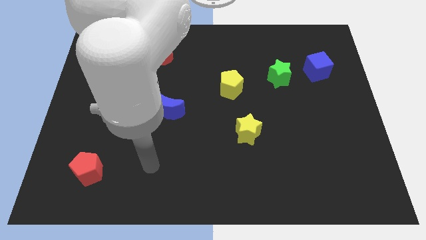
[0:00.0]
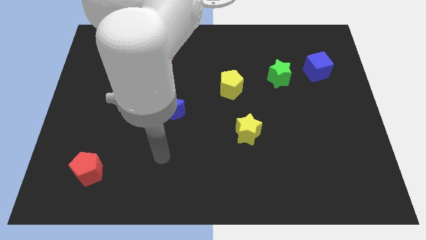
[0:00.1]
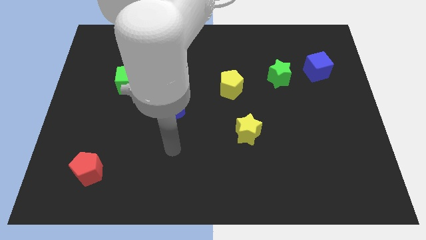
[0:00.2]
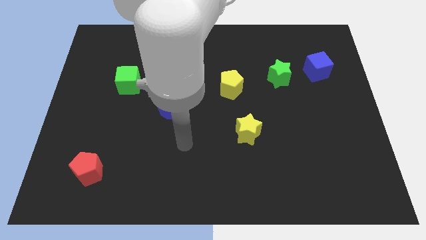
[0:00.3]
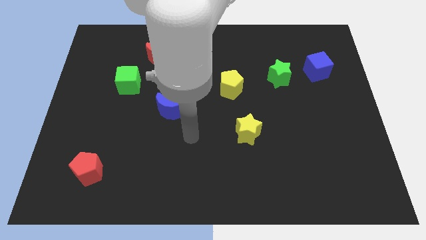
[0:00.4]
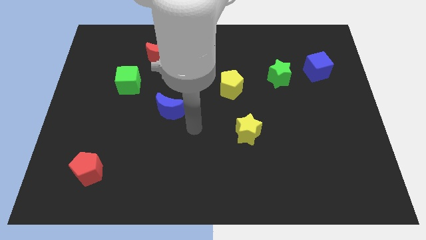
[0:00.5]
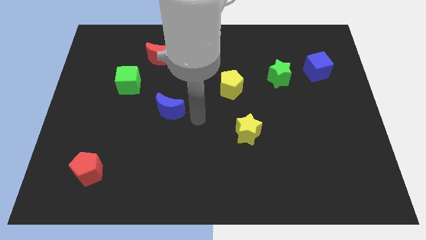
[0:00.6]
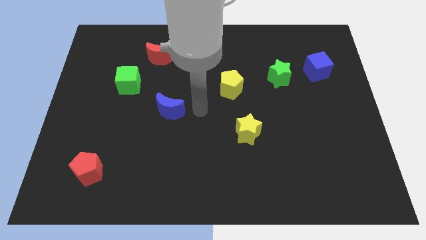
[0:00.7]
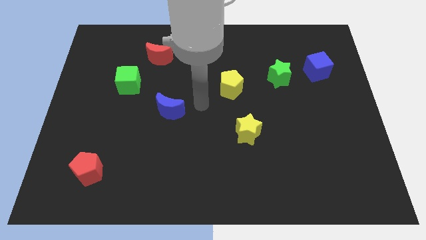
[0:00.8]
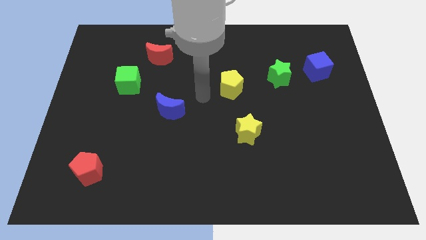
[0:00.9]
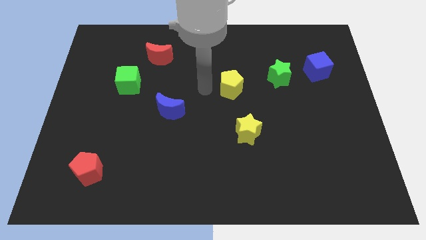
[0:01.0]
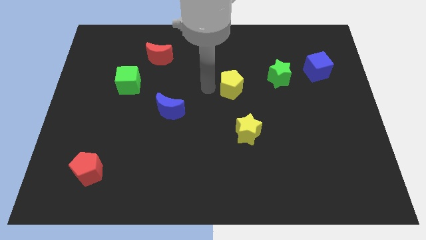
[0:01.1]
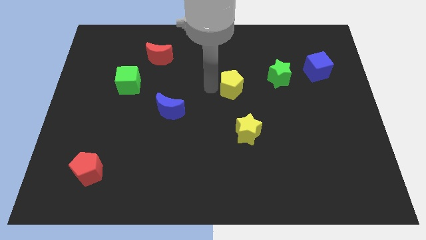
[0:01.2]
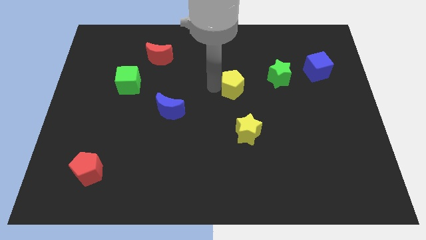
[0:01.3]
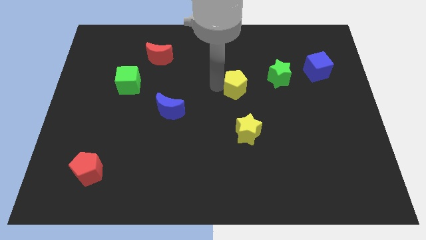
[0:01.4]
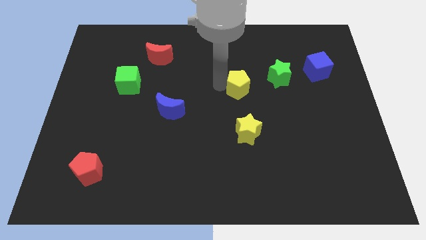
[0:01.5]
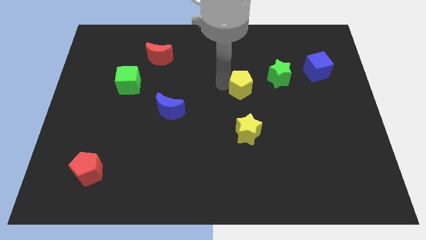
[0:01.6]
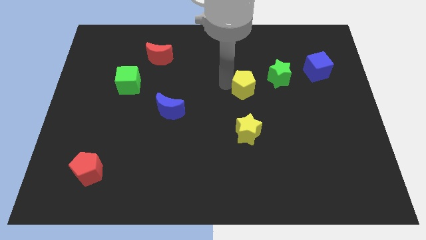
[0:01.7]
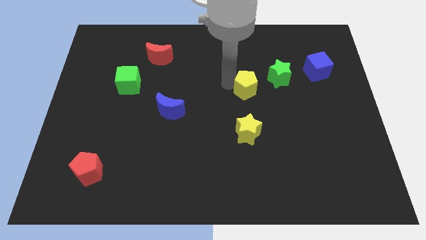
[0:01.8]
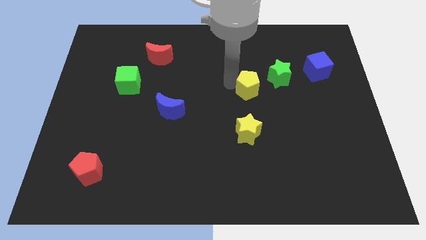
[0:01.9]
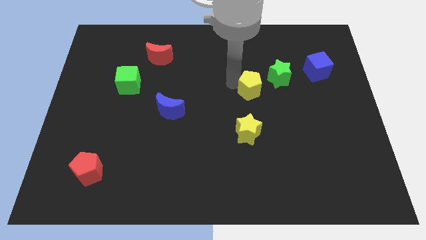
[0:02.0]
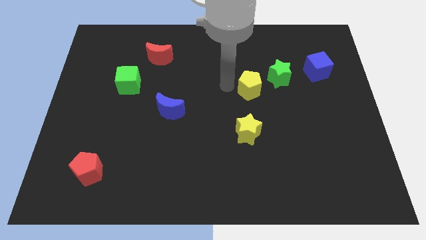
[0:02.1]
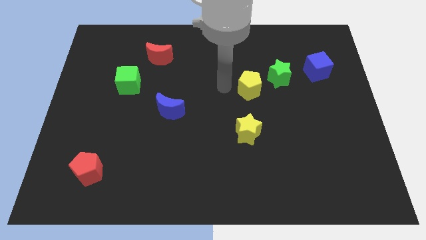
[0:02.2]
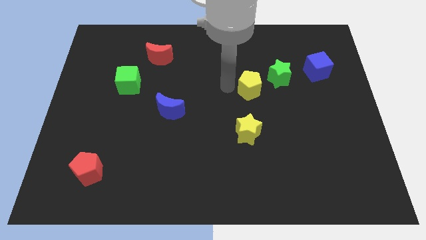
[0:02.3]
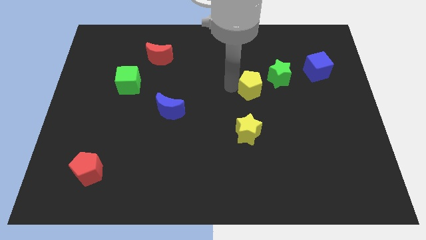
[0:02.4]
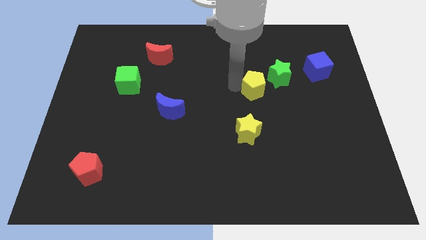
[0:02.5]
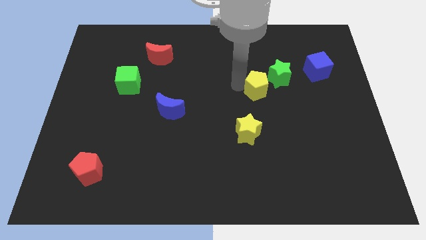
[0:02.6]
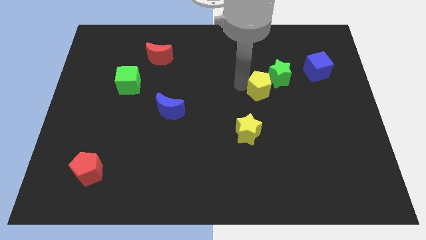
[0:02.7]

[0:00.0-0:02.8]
move the yellow pentagon to the right a little

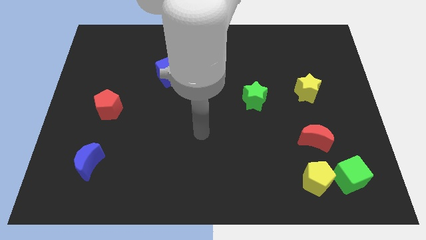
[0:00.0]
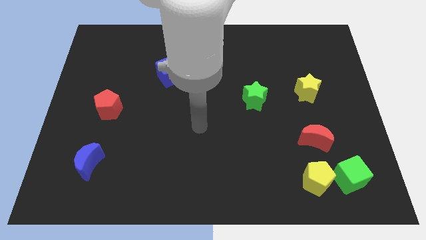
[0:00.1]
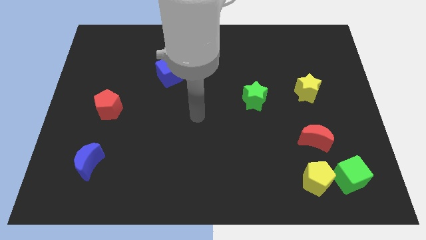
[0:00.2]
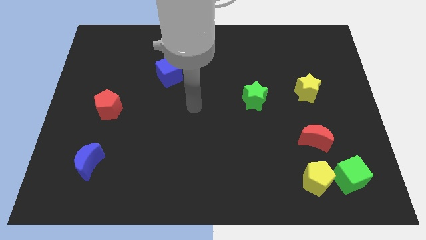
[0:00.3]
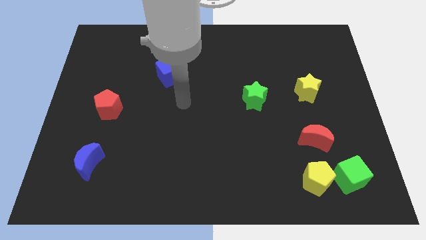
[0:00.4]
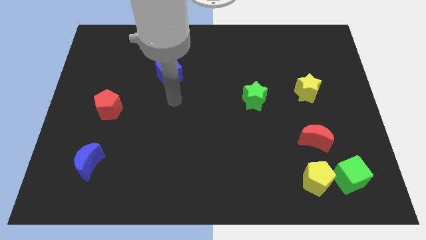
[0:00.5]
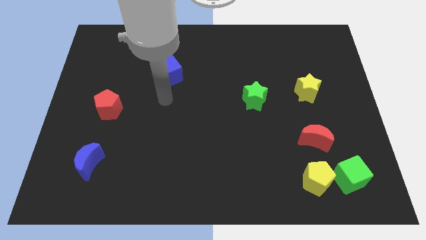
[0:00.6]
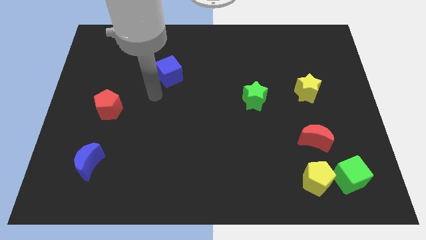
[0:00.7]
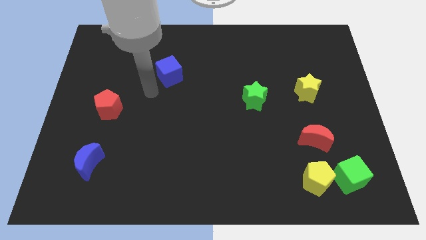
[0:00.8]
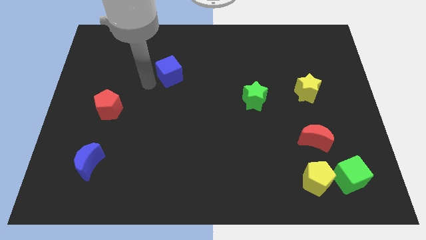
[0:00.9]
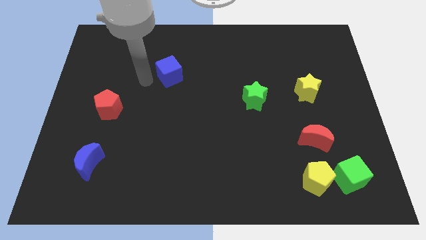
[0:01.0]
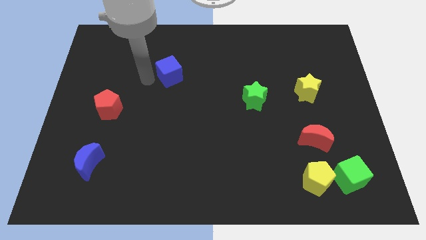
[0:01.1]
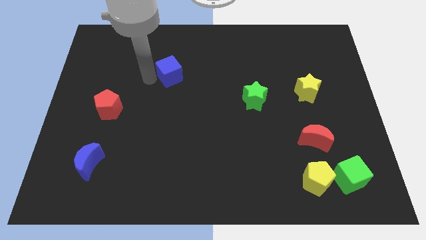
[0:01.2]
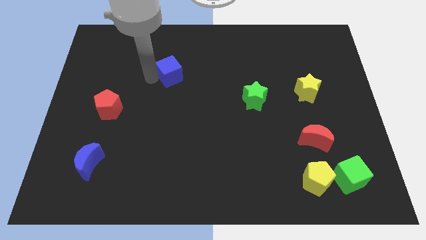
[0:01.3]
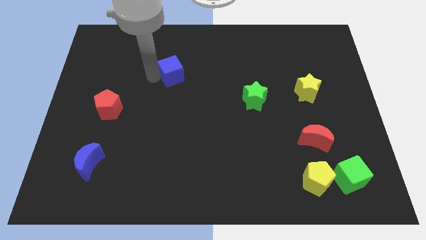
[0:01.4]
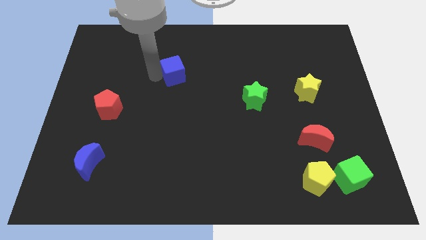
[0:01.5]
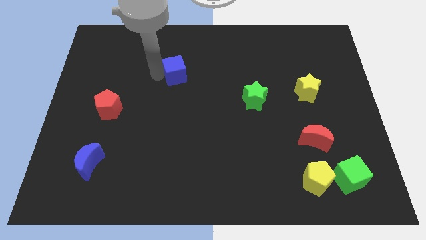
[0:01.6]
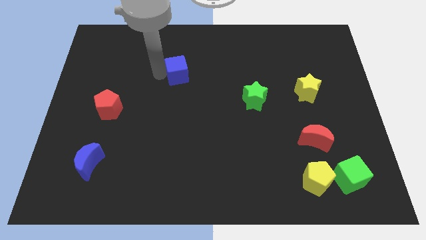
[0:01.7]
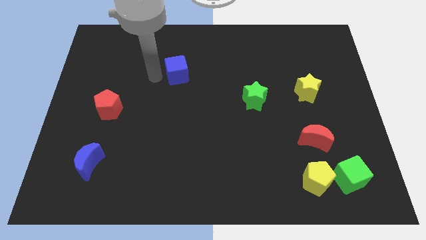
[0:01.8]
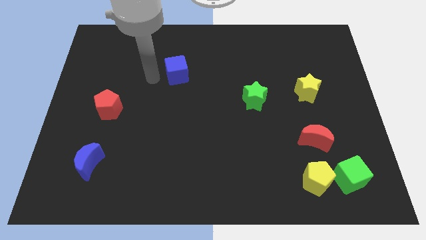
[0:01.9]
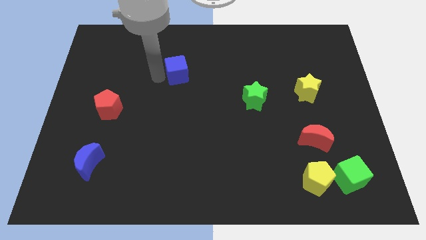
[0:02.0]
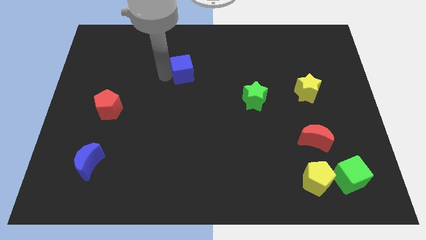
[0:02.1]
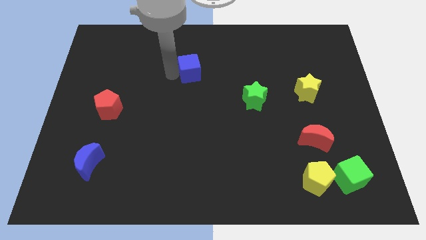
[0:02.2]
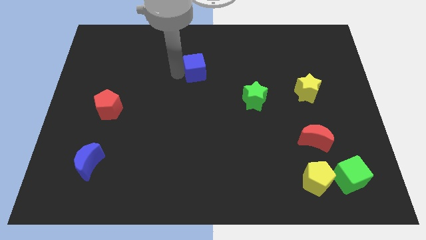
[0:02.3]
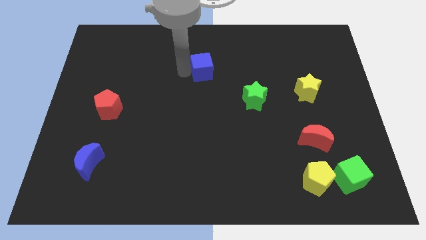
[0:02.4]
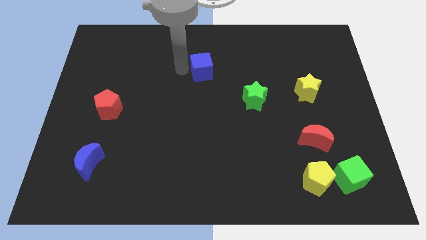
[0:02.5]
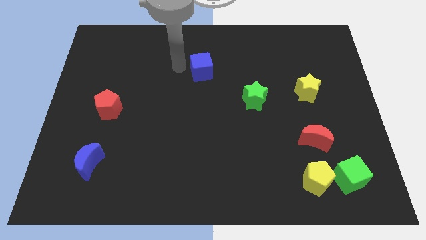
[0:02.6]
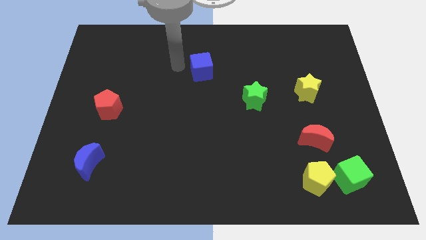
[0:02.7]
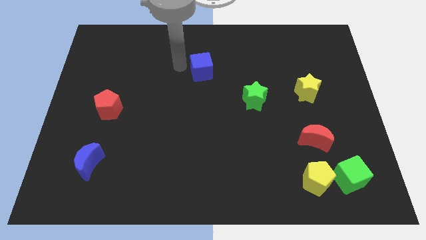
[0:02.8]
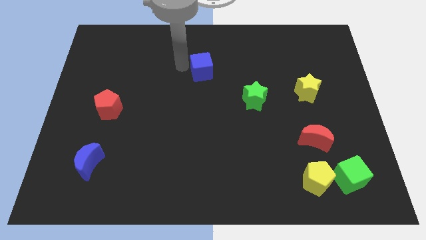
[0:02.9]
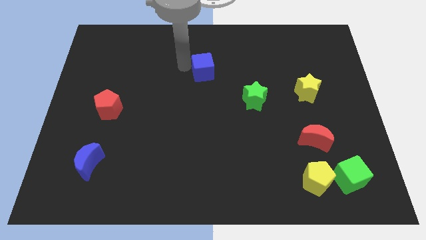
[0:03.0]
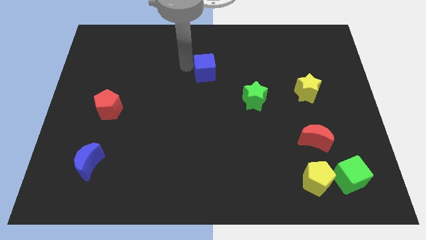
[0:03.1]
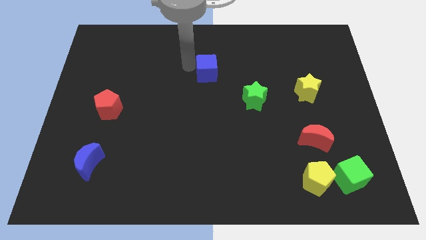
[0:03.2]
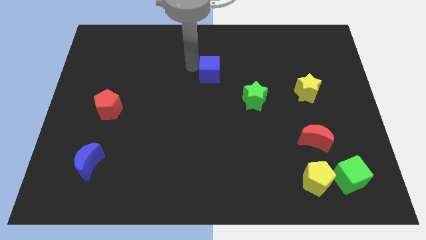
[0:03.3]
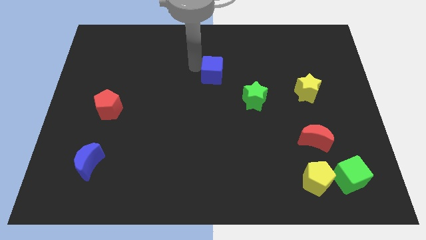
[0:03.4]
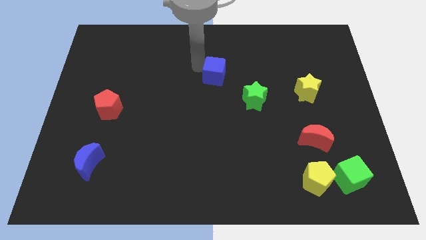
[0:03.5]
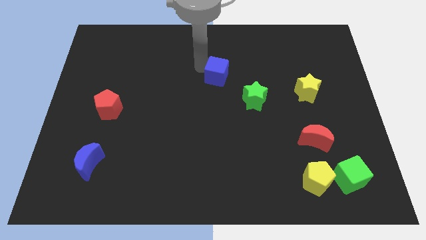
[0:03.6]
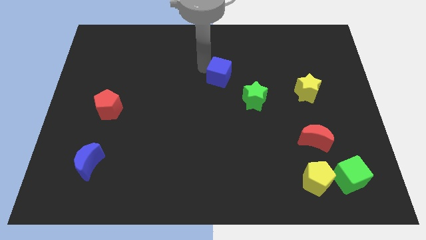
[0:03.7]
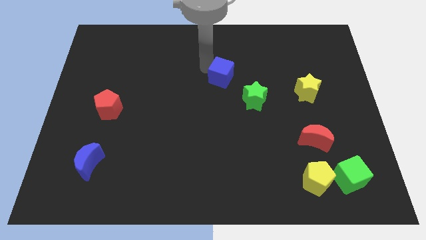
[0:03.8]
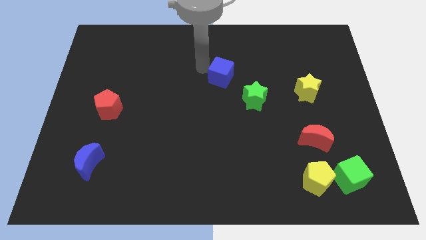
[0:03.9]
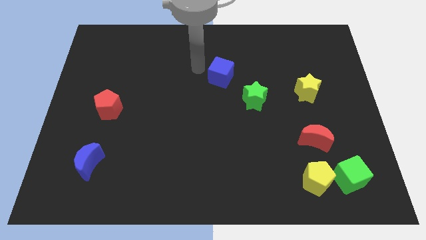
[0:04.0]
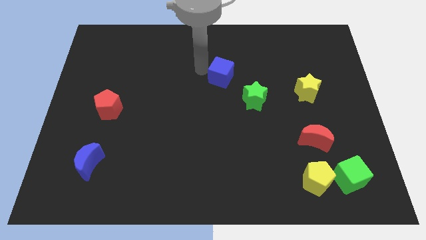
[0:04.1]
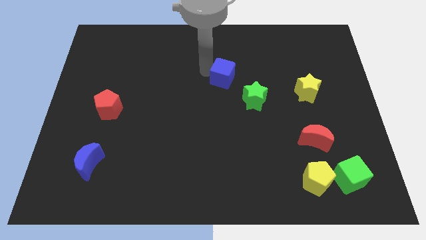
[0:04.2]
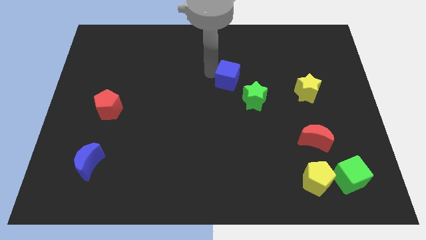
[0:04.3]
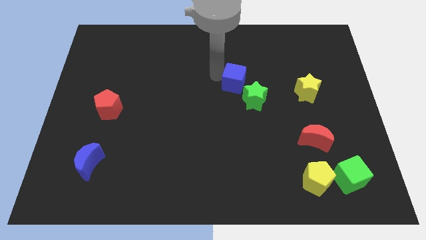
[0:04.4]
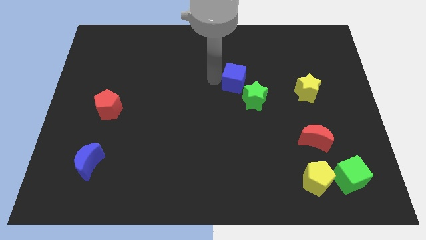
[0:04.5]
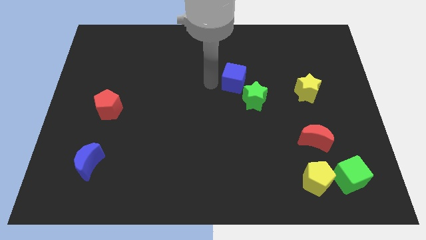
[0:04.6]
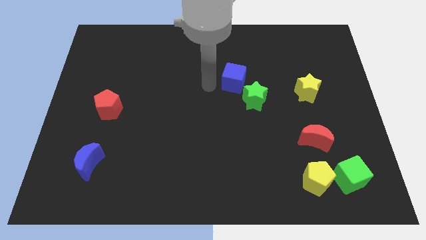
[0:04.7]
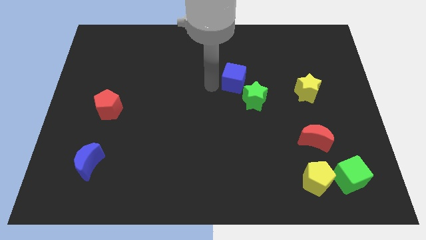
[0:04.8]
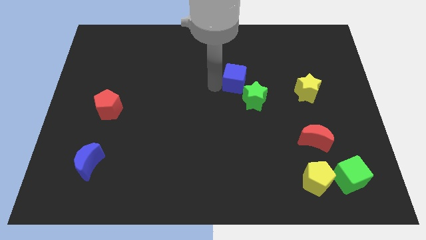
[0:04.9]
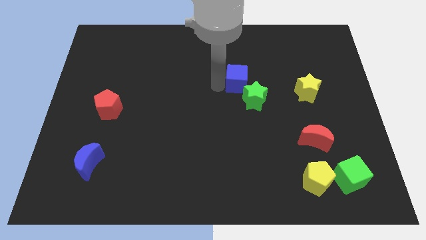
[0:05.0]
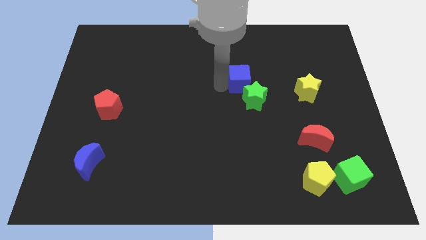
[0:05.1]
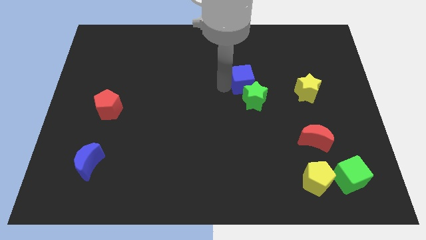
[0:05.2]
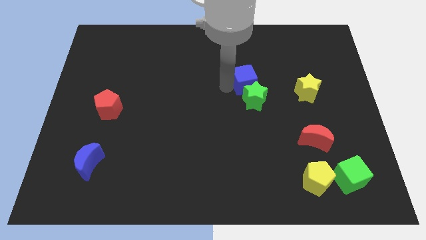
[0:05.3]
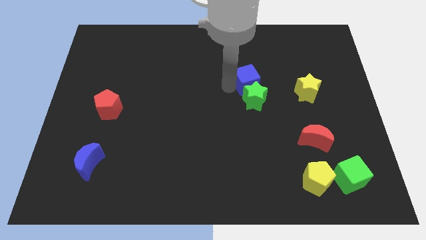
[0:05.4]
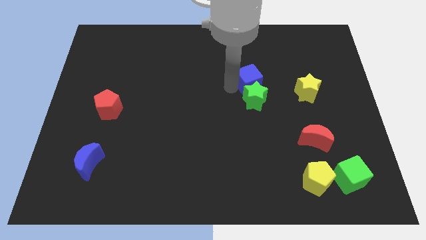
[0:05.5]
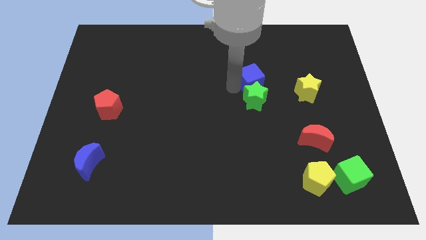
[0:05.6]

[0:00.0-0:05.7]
push the blue cube right
